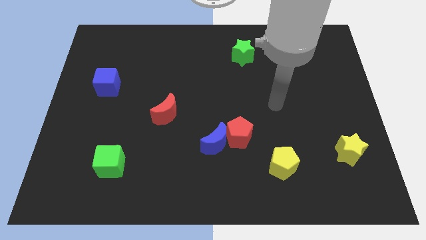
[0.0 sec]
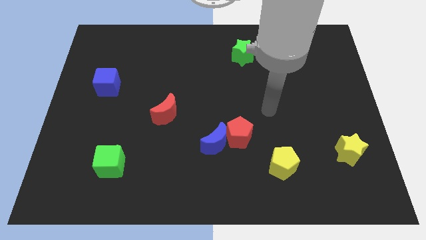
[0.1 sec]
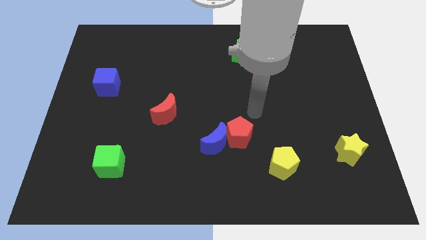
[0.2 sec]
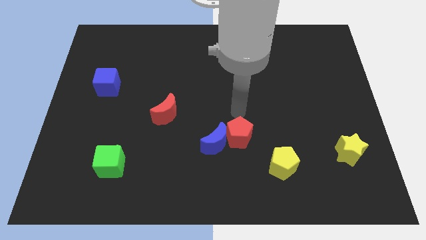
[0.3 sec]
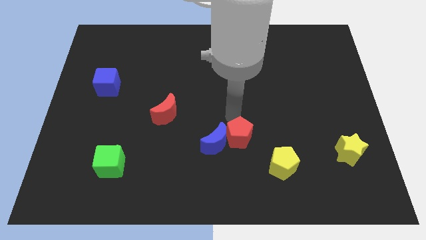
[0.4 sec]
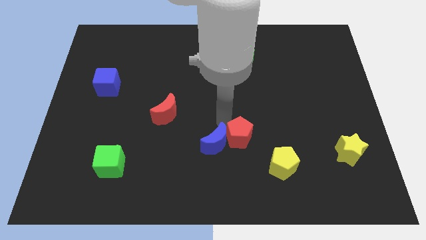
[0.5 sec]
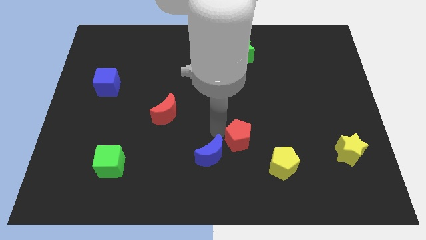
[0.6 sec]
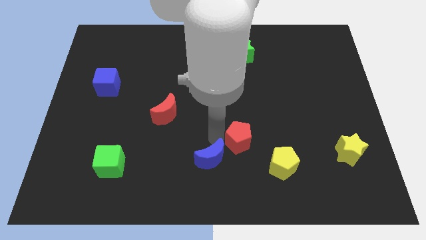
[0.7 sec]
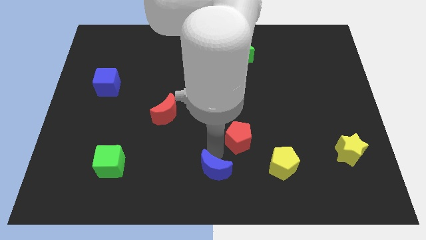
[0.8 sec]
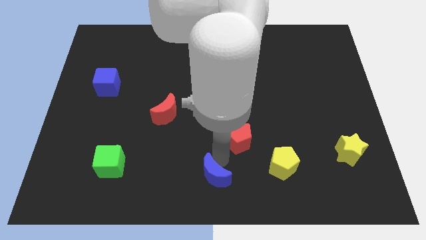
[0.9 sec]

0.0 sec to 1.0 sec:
pull the red pentagon apart from the blue moon

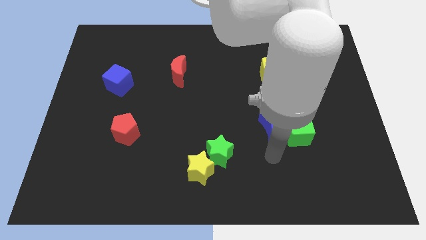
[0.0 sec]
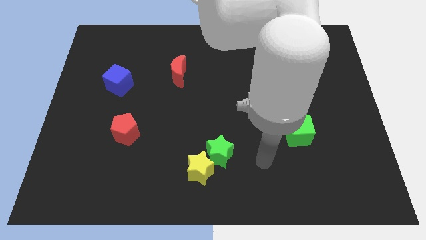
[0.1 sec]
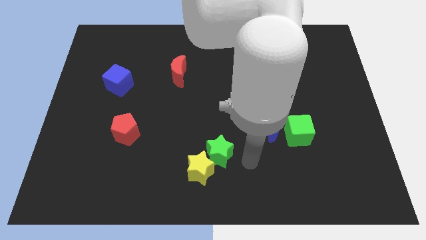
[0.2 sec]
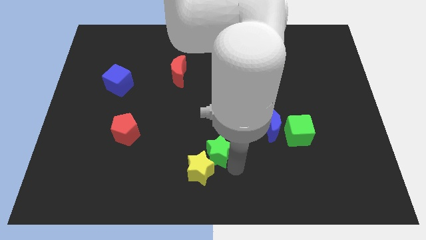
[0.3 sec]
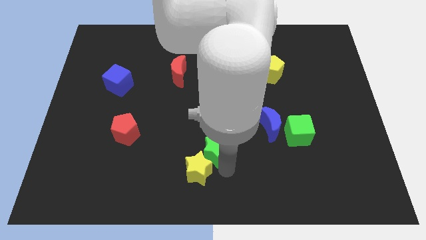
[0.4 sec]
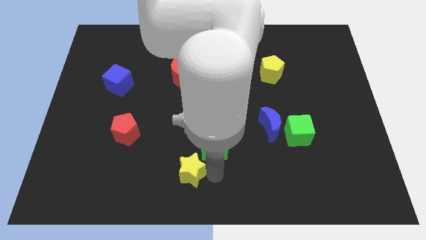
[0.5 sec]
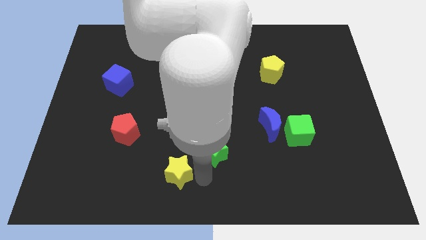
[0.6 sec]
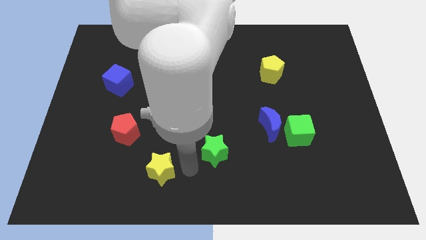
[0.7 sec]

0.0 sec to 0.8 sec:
pull the green star apart from the yellow star

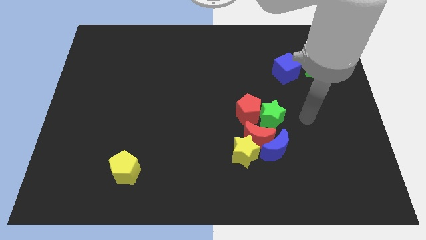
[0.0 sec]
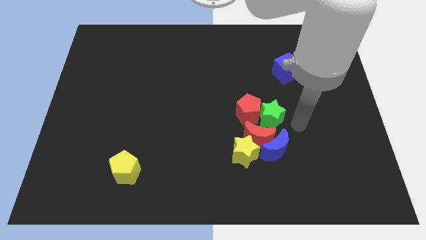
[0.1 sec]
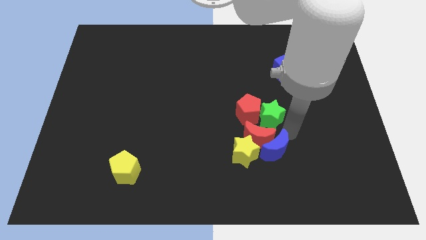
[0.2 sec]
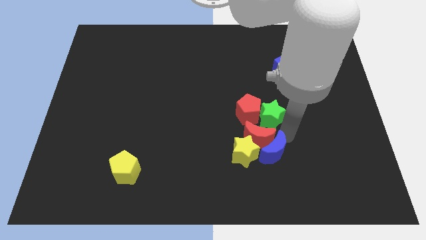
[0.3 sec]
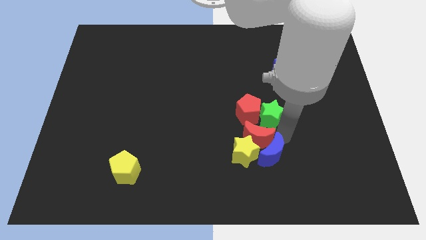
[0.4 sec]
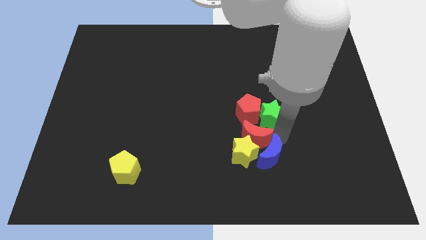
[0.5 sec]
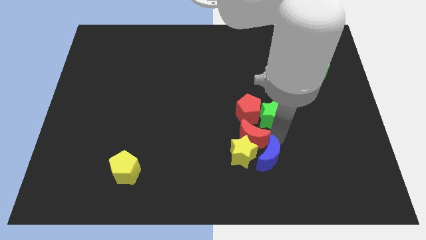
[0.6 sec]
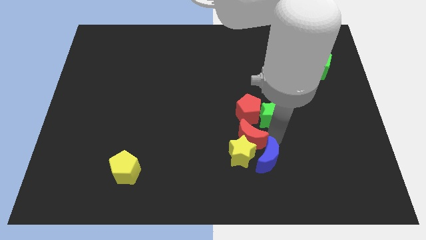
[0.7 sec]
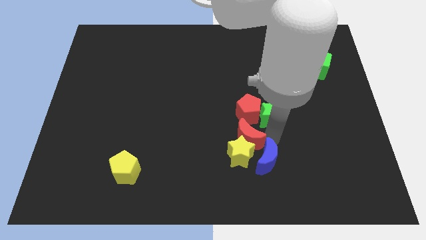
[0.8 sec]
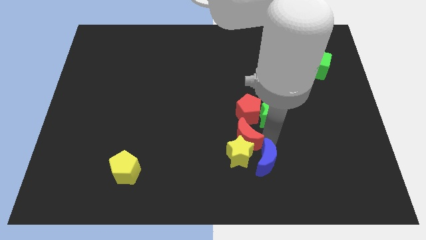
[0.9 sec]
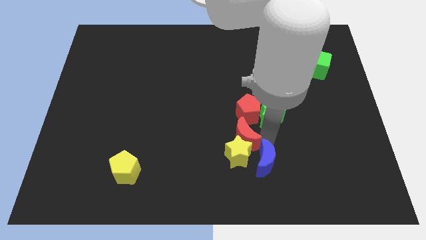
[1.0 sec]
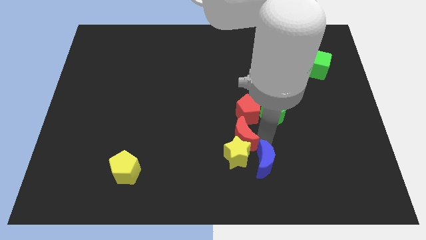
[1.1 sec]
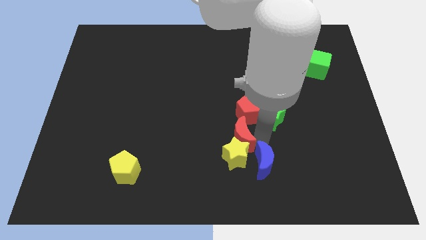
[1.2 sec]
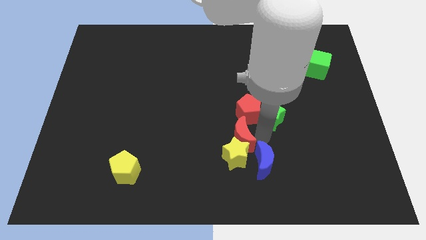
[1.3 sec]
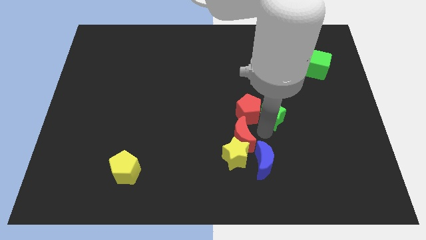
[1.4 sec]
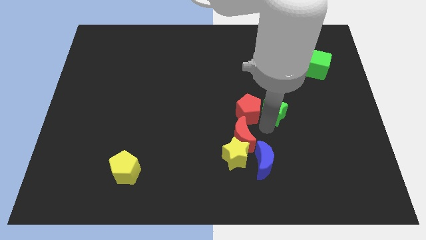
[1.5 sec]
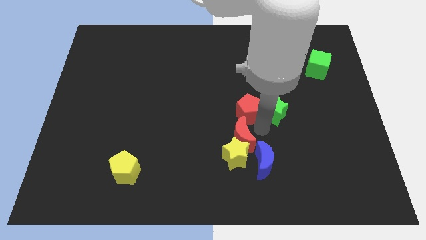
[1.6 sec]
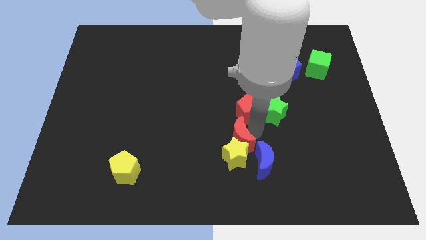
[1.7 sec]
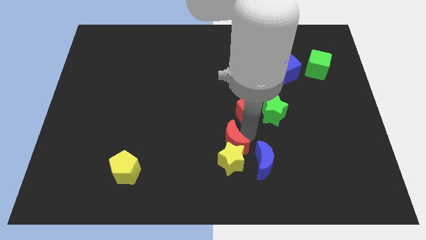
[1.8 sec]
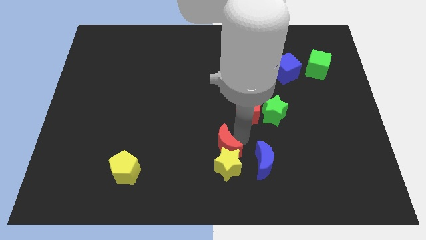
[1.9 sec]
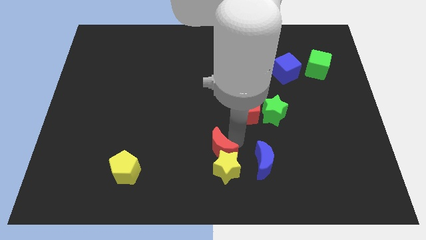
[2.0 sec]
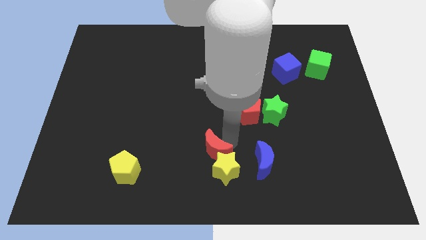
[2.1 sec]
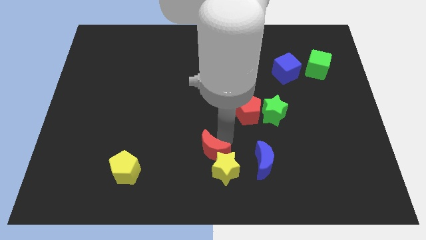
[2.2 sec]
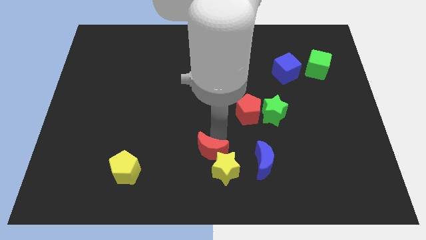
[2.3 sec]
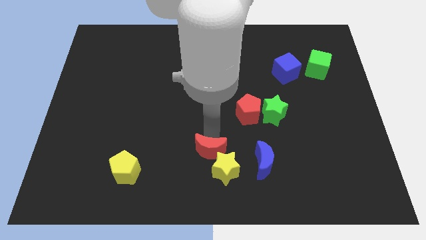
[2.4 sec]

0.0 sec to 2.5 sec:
separate the red moon from the clump

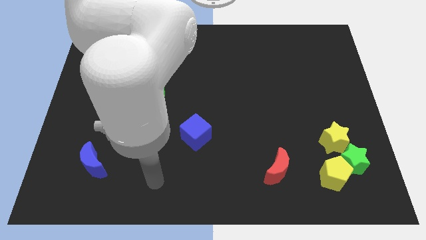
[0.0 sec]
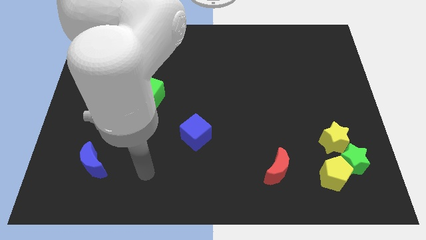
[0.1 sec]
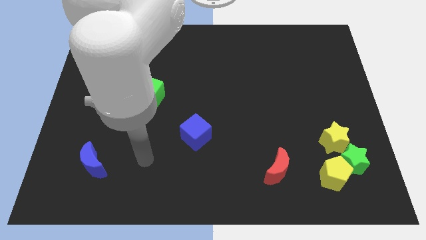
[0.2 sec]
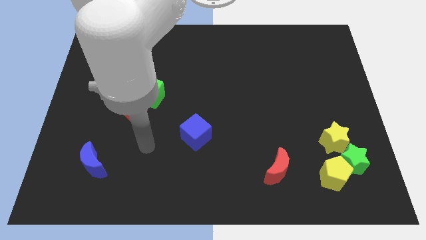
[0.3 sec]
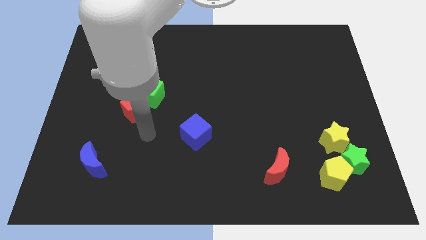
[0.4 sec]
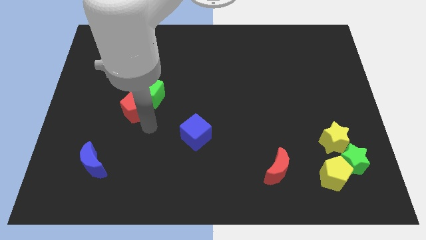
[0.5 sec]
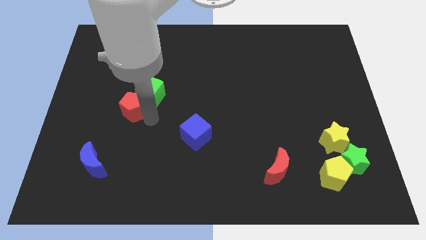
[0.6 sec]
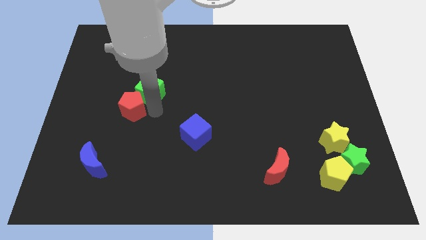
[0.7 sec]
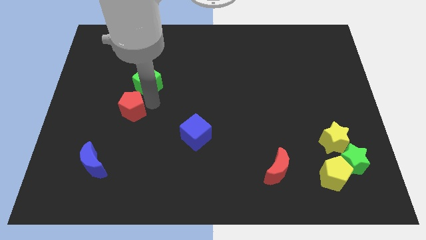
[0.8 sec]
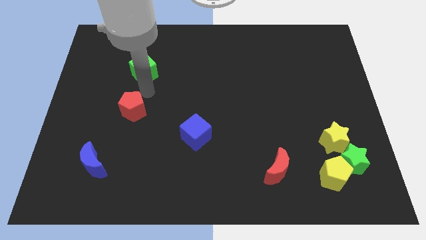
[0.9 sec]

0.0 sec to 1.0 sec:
separate the red pentagon from the green cube

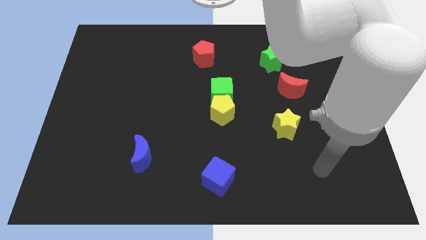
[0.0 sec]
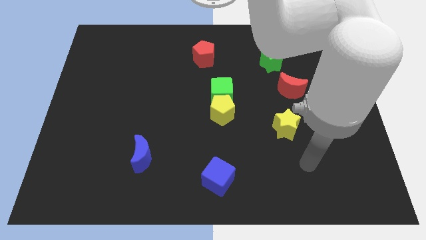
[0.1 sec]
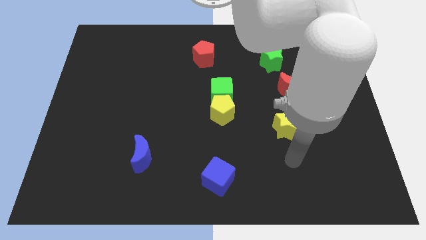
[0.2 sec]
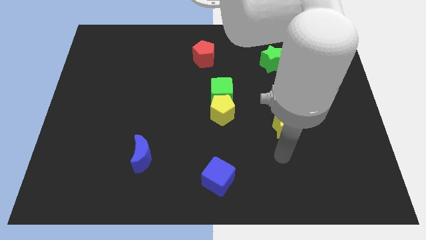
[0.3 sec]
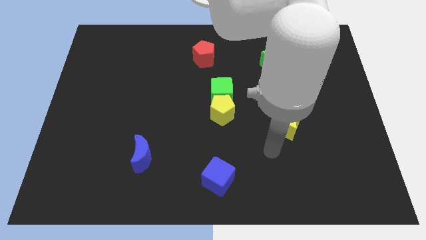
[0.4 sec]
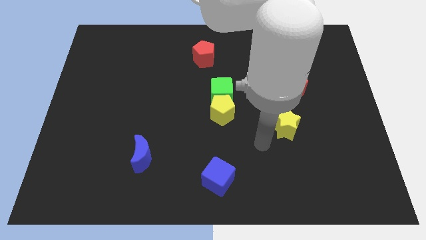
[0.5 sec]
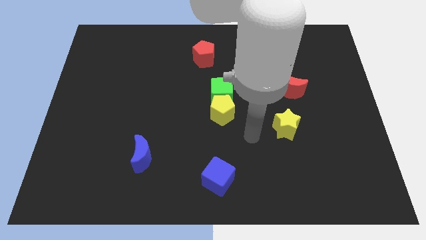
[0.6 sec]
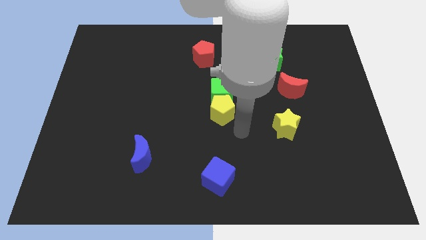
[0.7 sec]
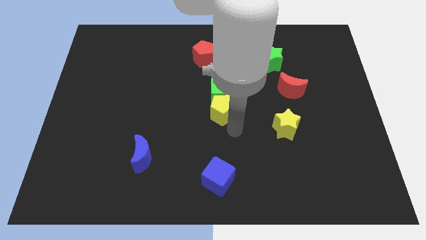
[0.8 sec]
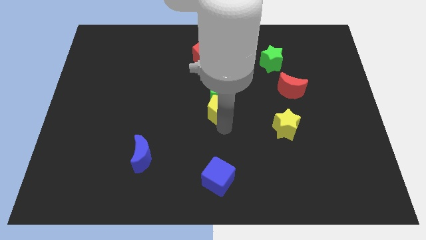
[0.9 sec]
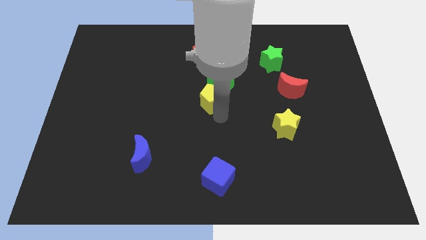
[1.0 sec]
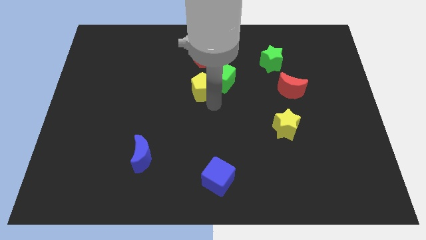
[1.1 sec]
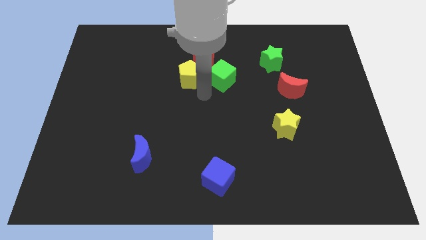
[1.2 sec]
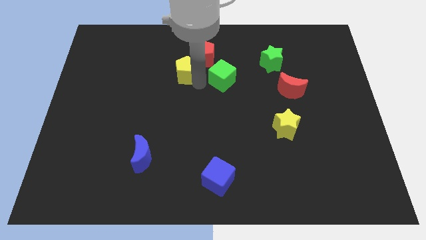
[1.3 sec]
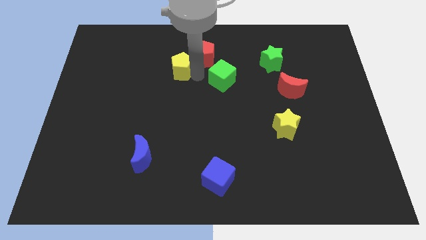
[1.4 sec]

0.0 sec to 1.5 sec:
separate the green cube from the yellow pentagon

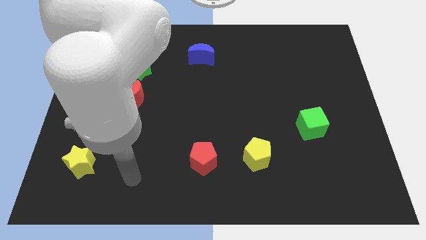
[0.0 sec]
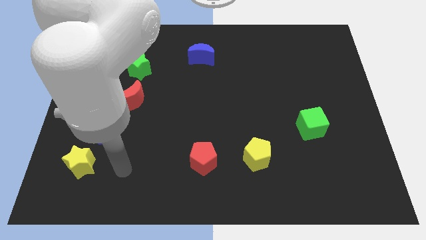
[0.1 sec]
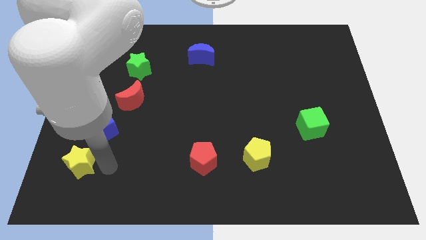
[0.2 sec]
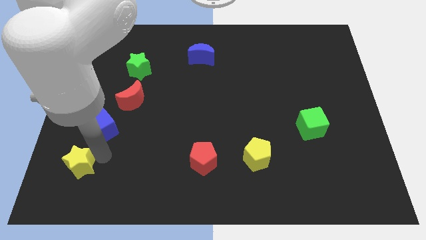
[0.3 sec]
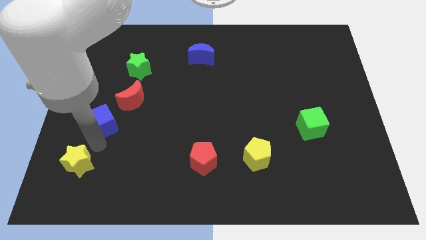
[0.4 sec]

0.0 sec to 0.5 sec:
pull the yellow star apart from the blue cube

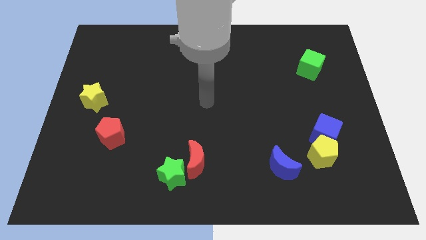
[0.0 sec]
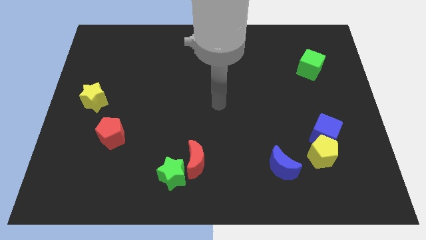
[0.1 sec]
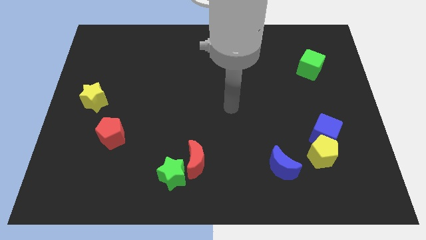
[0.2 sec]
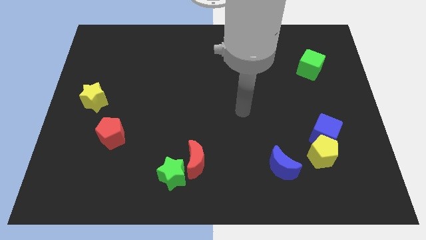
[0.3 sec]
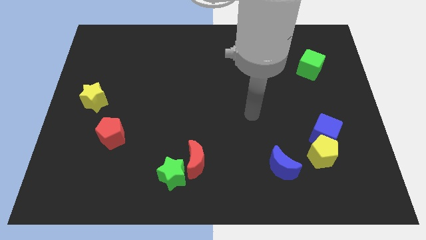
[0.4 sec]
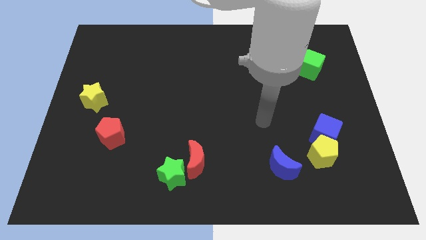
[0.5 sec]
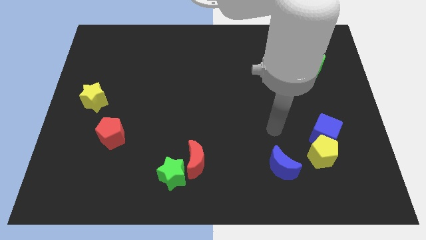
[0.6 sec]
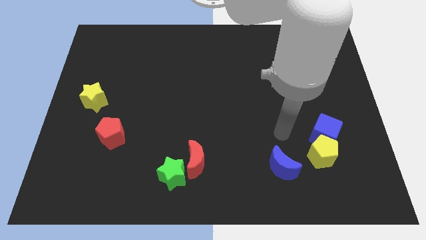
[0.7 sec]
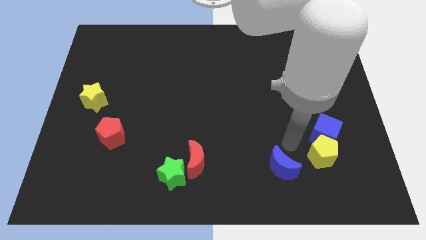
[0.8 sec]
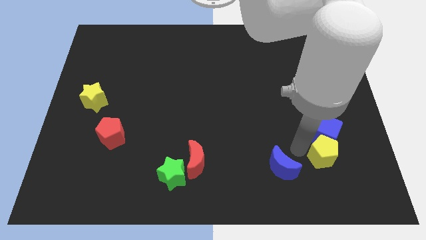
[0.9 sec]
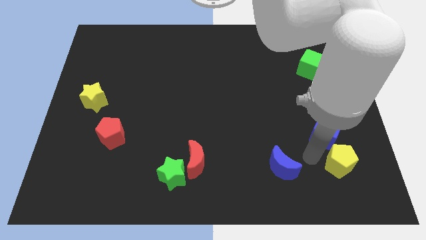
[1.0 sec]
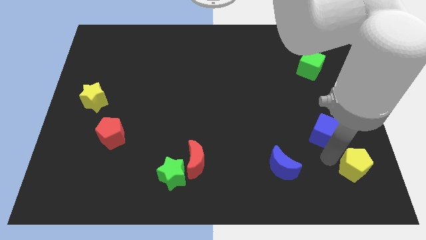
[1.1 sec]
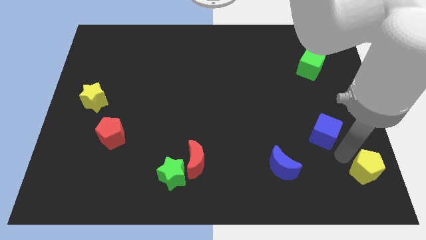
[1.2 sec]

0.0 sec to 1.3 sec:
pull the blue cube apart from the yellow pentagon

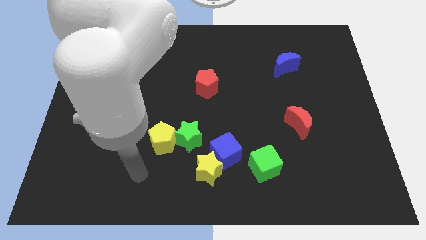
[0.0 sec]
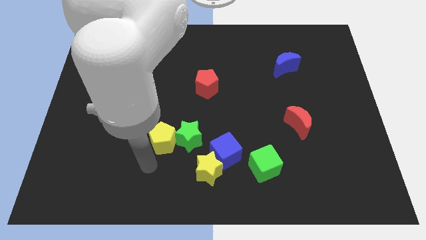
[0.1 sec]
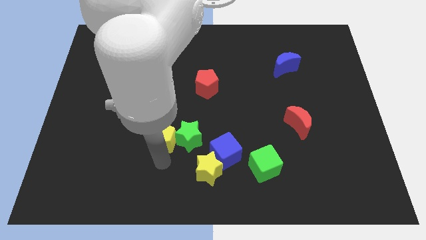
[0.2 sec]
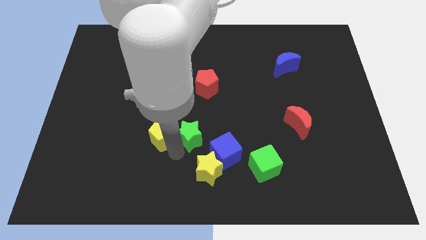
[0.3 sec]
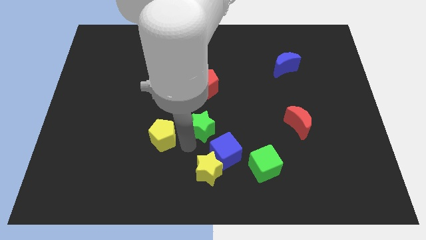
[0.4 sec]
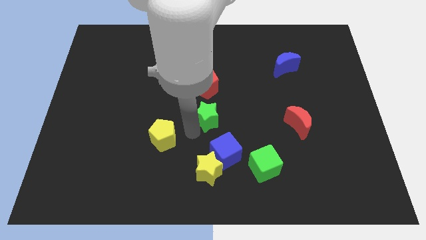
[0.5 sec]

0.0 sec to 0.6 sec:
separate the yellow pentagon from the green star
